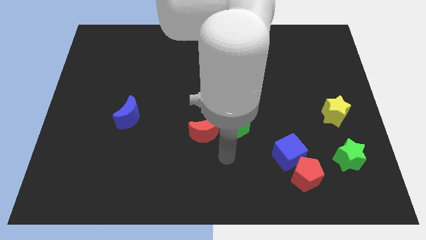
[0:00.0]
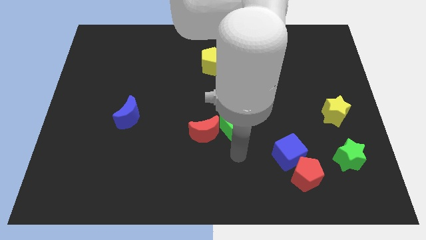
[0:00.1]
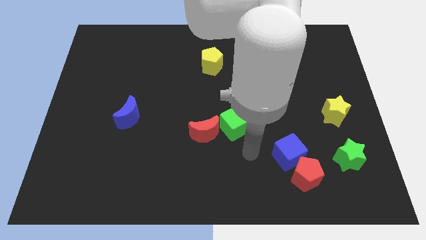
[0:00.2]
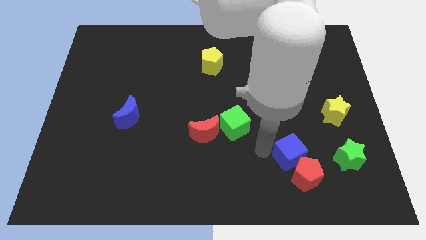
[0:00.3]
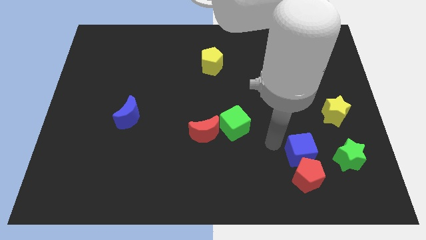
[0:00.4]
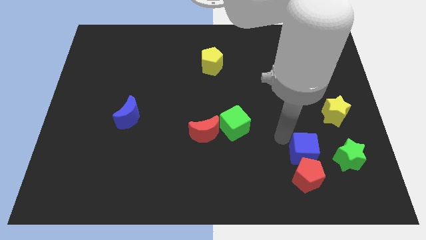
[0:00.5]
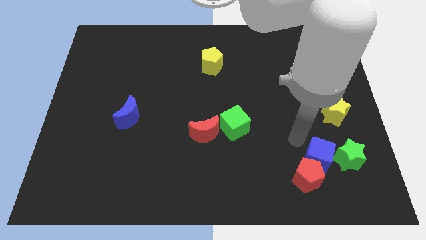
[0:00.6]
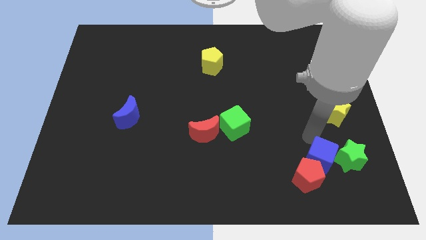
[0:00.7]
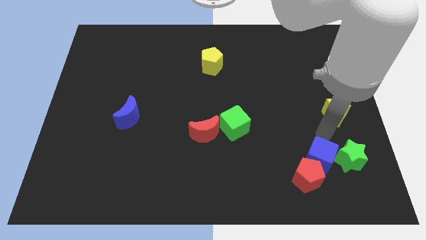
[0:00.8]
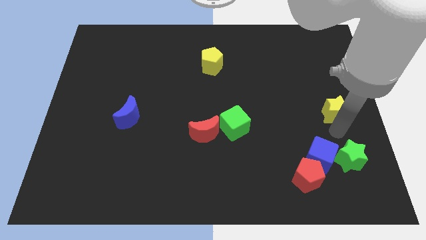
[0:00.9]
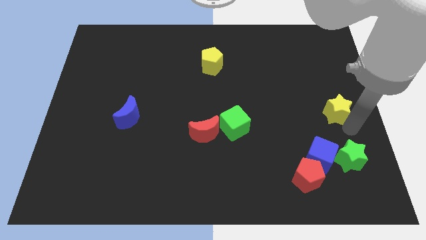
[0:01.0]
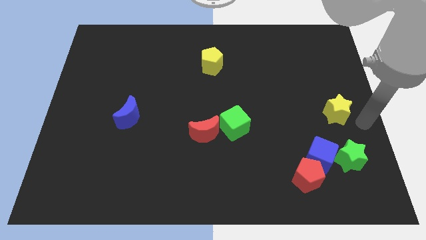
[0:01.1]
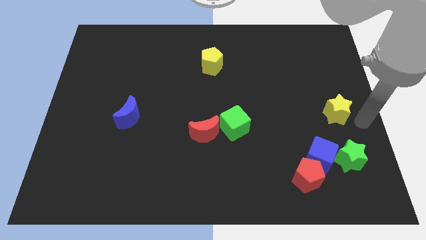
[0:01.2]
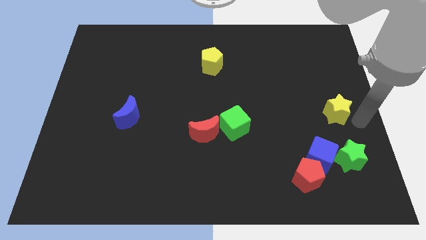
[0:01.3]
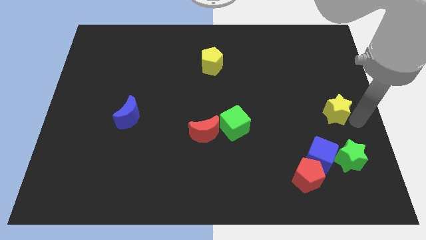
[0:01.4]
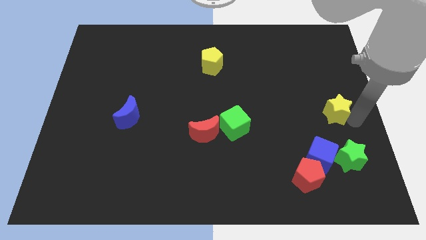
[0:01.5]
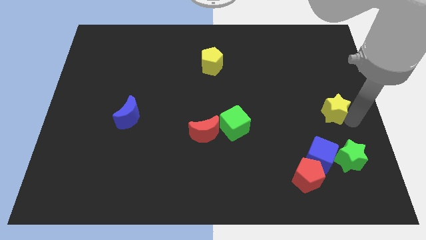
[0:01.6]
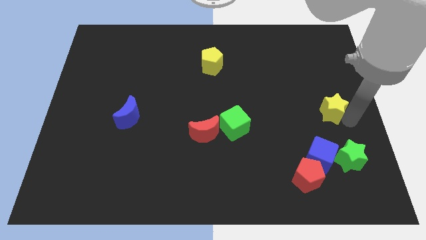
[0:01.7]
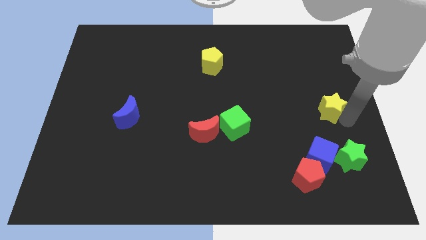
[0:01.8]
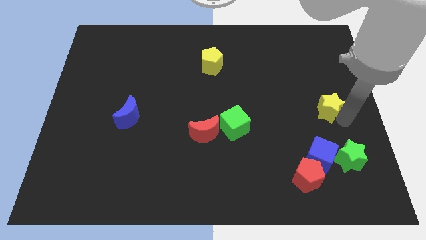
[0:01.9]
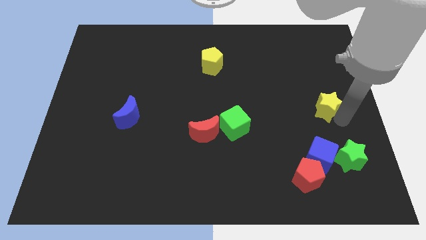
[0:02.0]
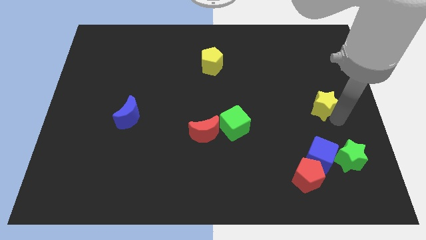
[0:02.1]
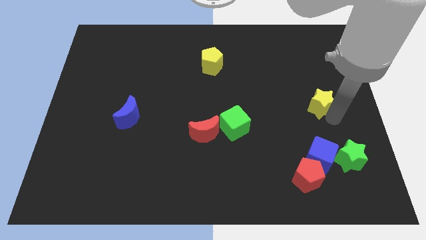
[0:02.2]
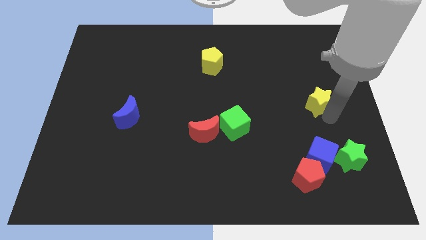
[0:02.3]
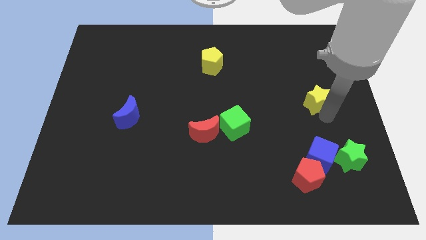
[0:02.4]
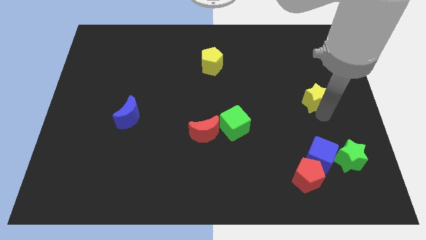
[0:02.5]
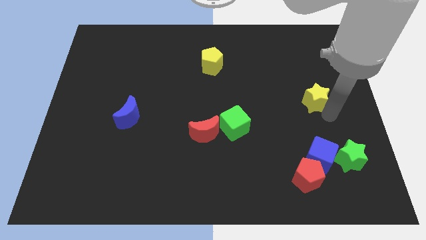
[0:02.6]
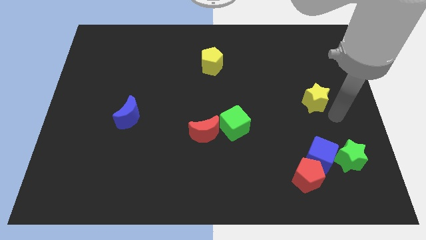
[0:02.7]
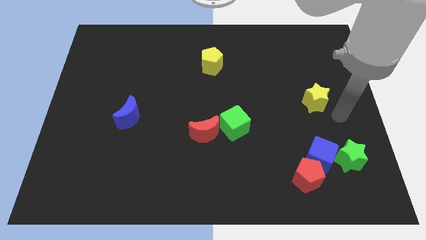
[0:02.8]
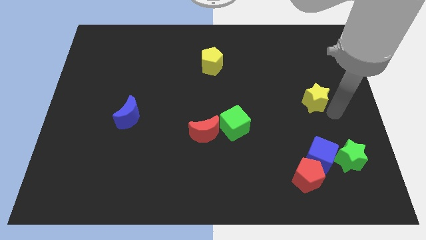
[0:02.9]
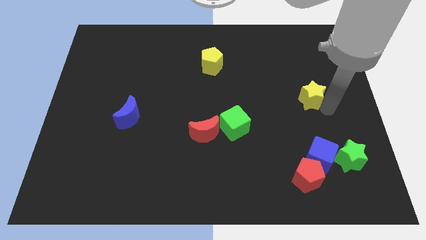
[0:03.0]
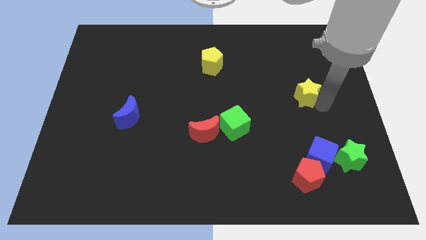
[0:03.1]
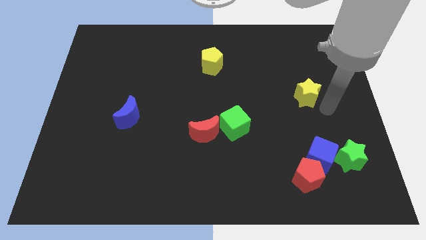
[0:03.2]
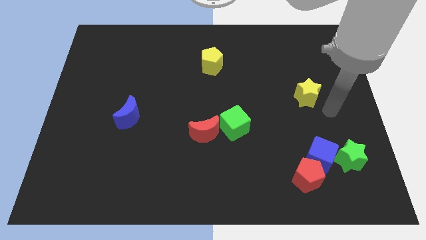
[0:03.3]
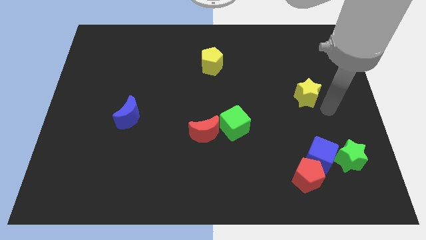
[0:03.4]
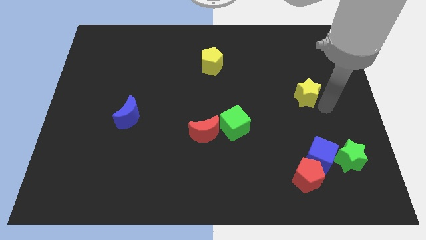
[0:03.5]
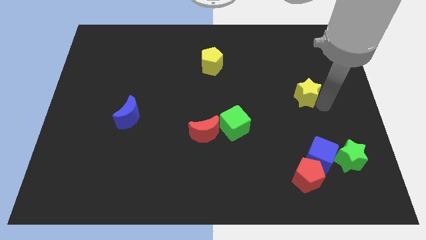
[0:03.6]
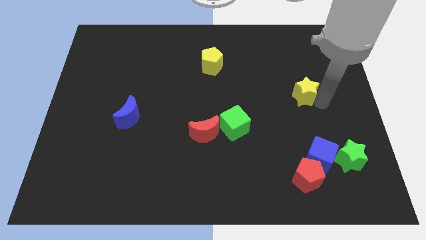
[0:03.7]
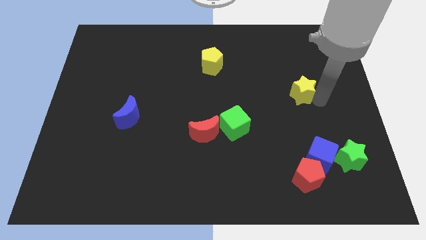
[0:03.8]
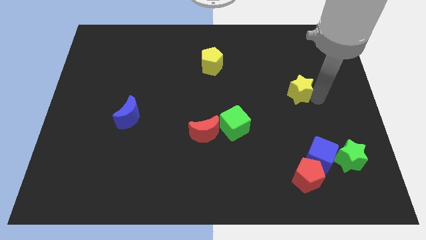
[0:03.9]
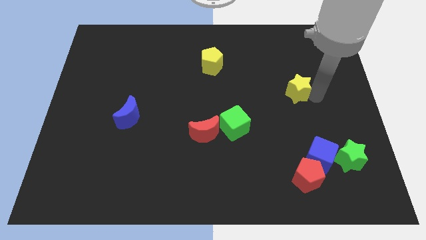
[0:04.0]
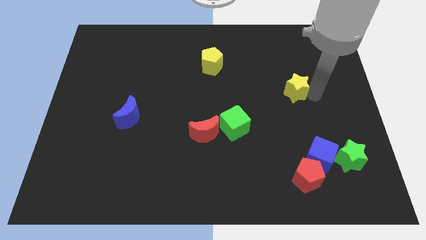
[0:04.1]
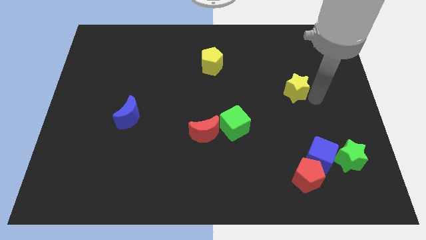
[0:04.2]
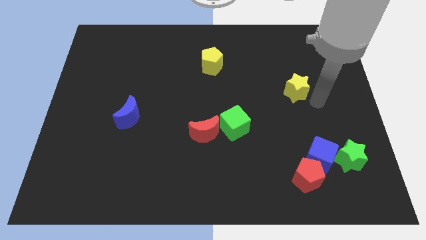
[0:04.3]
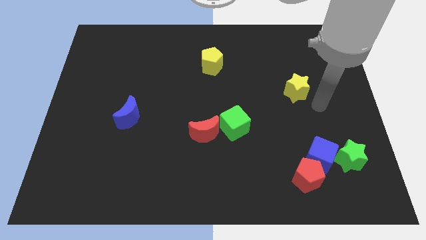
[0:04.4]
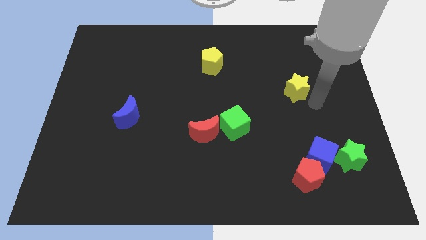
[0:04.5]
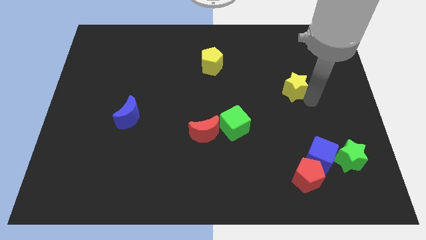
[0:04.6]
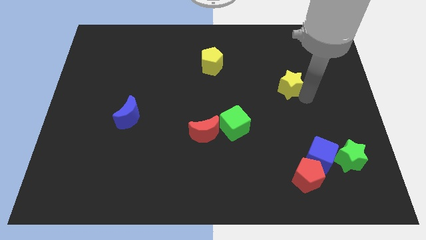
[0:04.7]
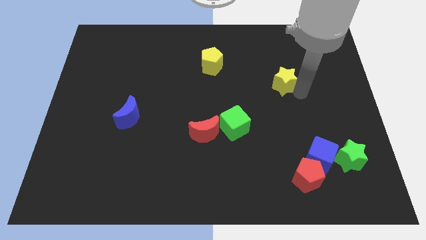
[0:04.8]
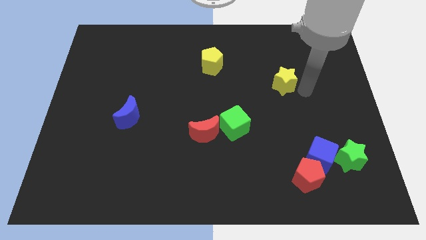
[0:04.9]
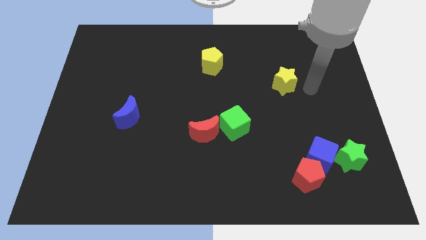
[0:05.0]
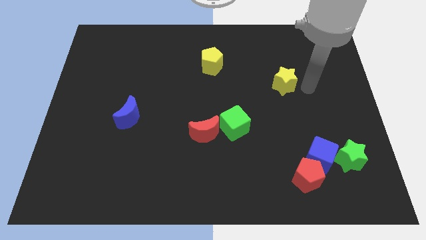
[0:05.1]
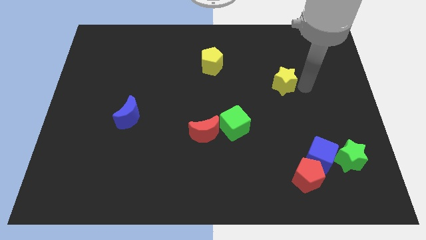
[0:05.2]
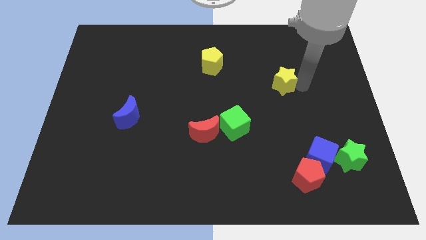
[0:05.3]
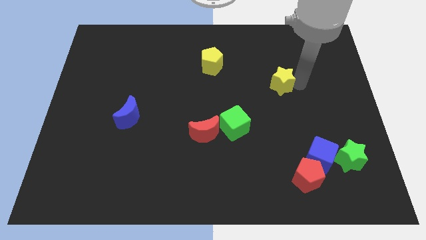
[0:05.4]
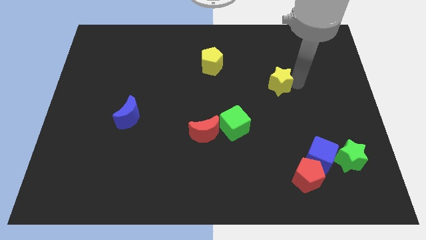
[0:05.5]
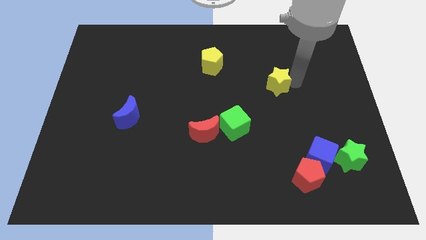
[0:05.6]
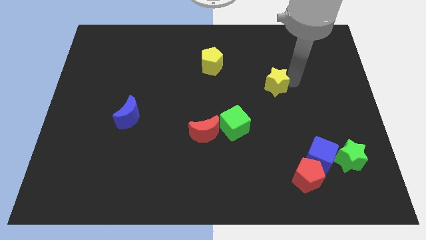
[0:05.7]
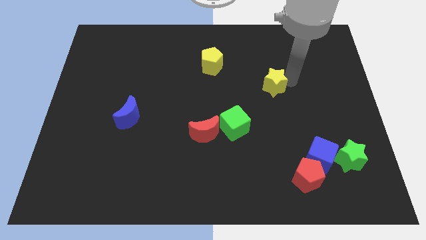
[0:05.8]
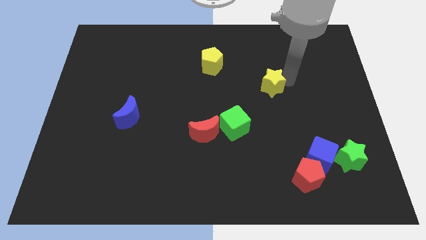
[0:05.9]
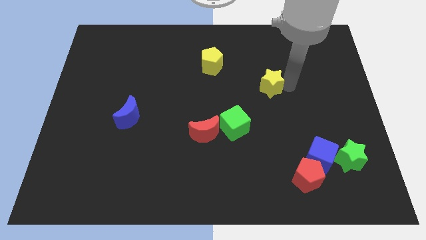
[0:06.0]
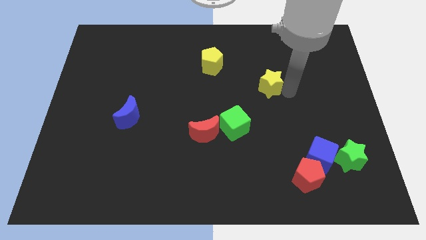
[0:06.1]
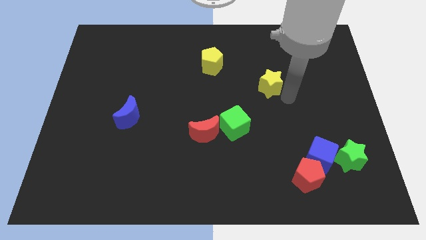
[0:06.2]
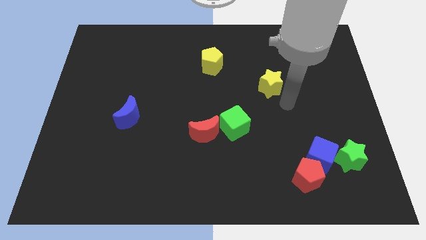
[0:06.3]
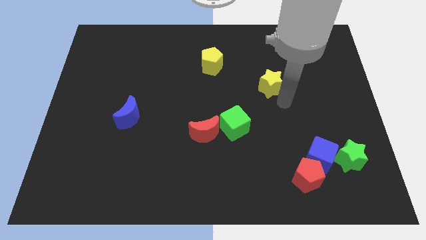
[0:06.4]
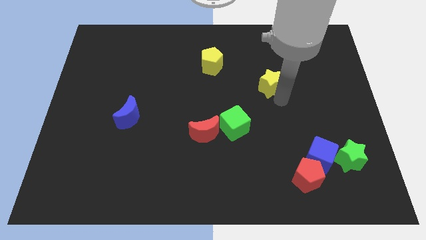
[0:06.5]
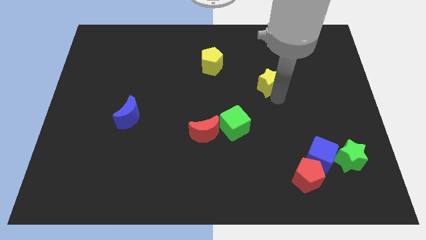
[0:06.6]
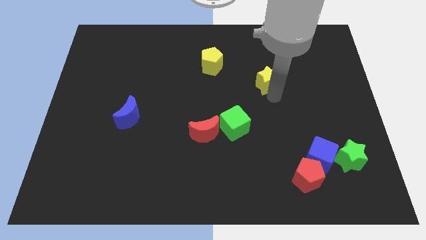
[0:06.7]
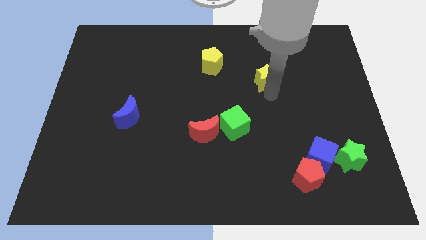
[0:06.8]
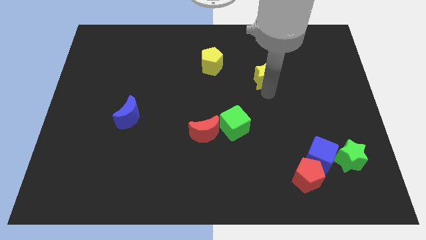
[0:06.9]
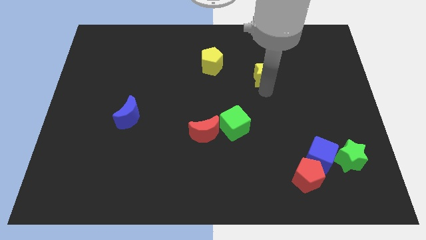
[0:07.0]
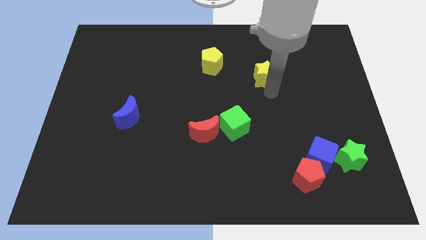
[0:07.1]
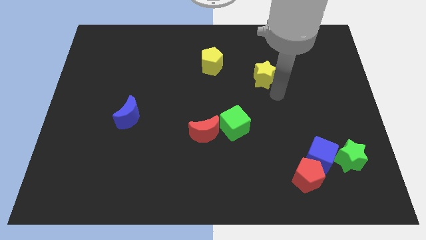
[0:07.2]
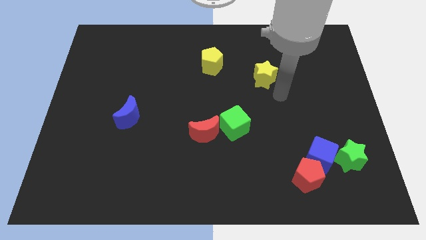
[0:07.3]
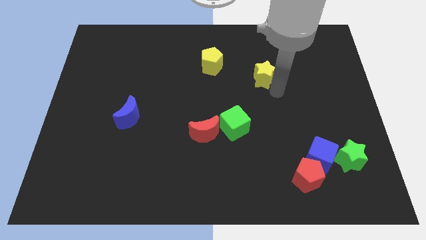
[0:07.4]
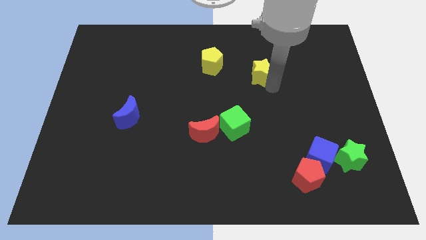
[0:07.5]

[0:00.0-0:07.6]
push the yellow star right of the yellow pentagon
